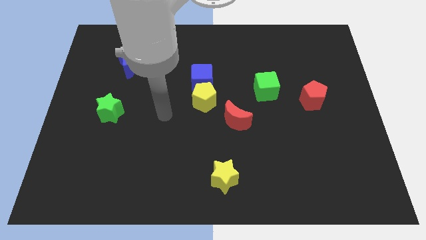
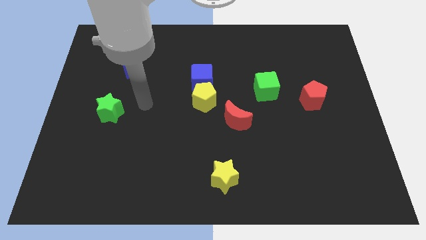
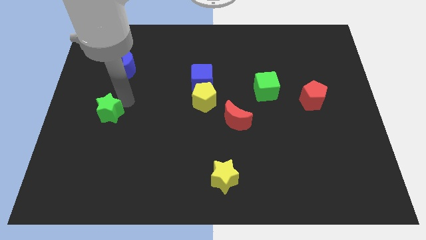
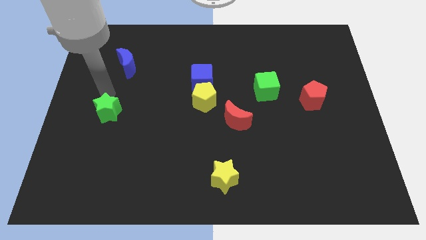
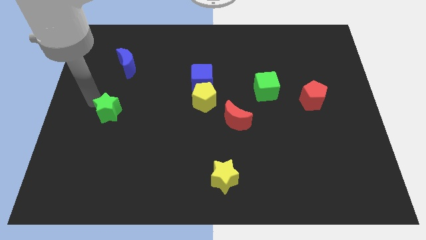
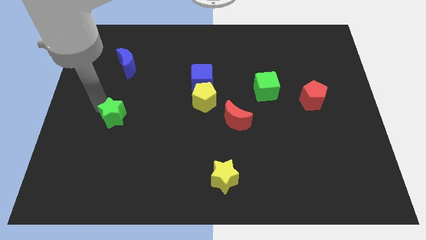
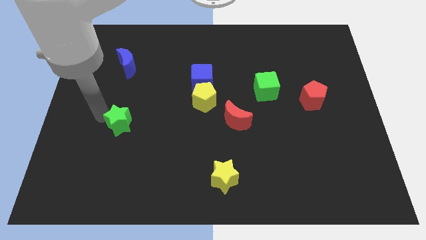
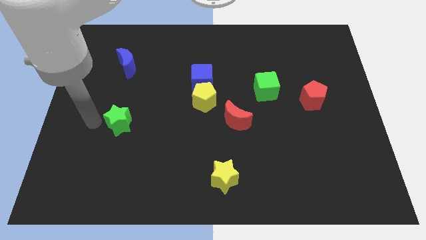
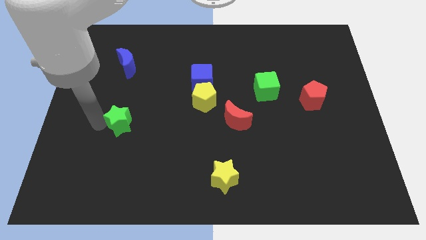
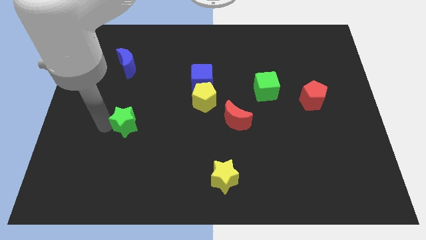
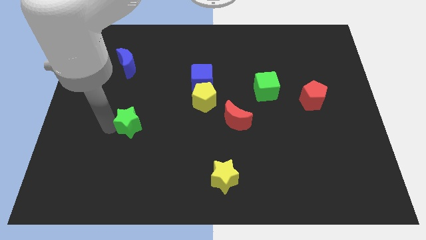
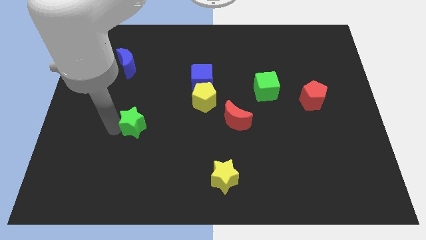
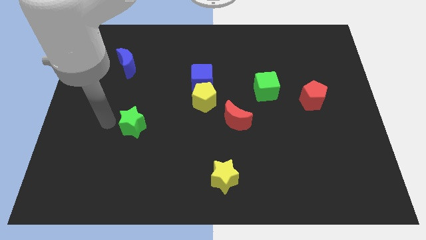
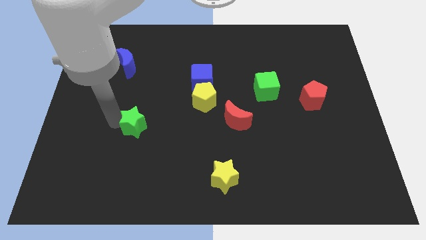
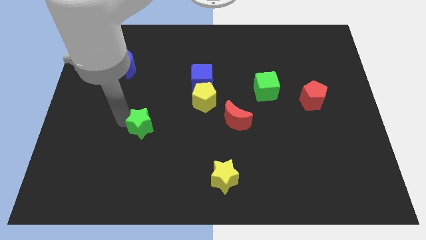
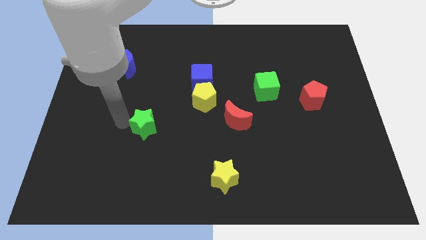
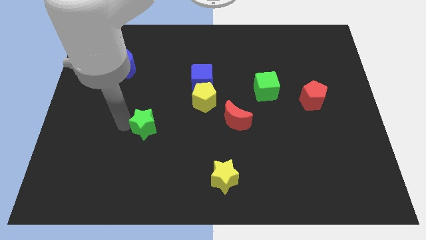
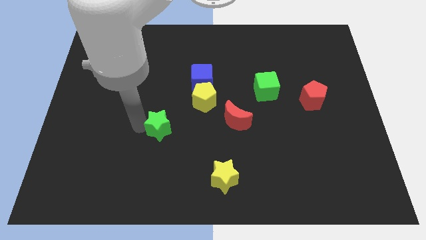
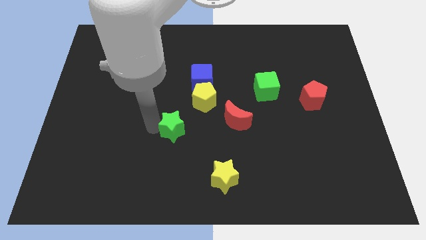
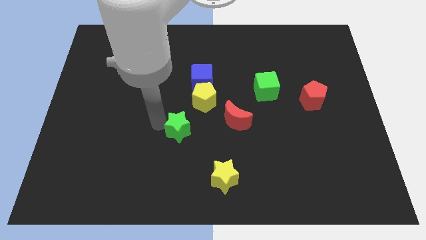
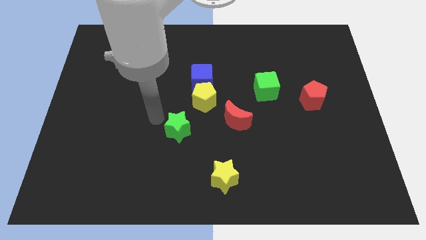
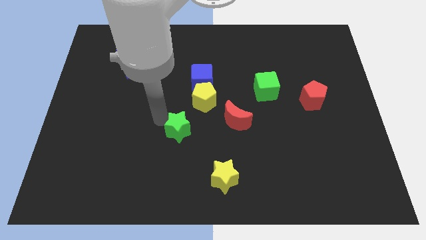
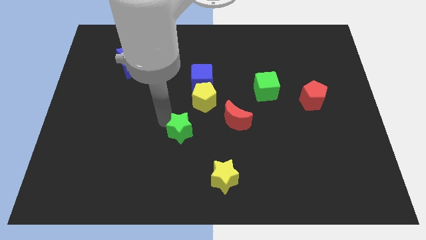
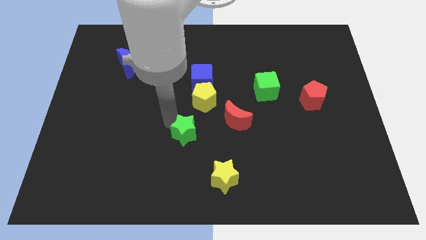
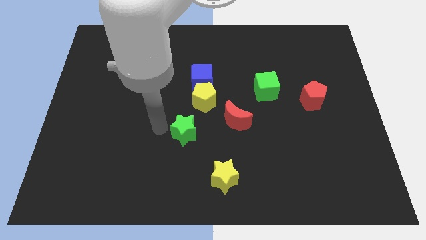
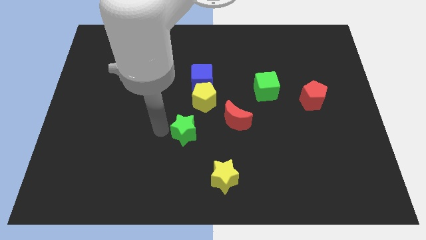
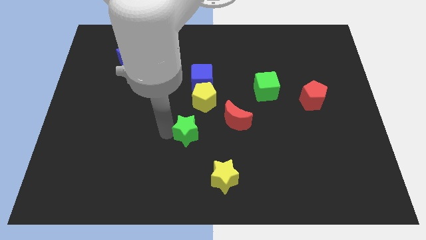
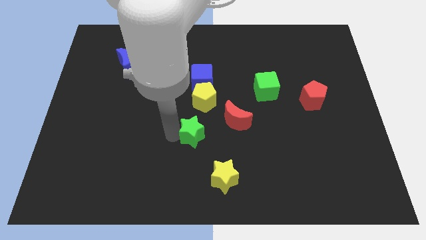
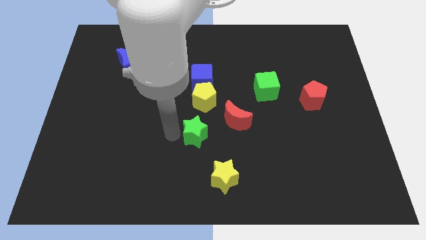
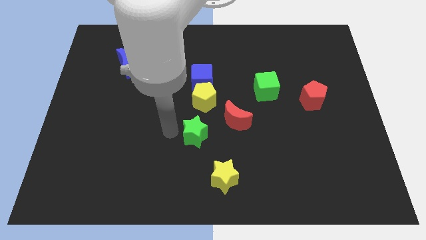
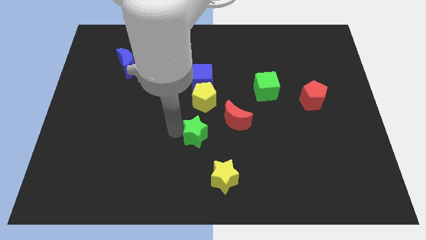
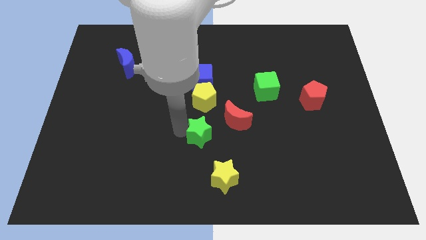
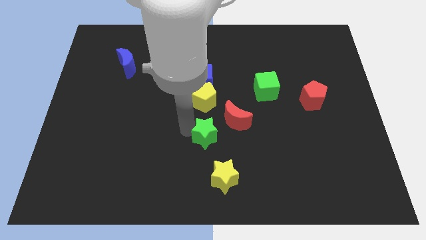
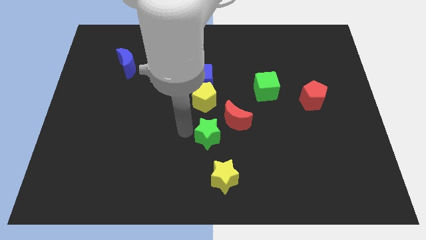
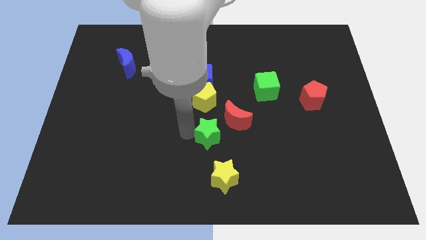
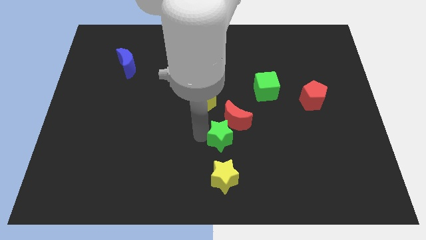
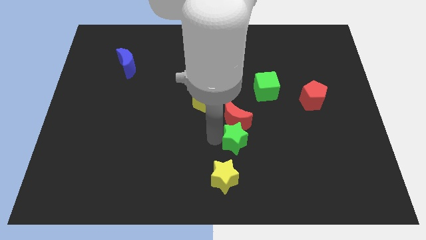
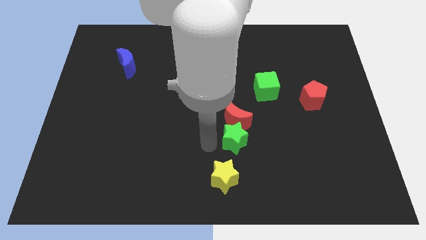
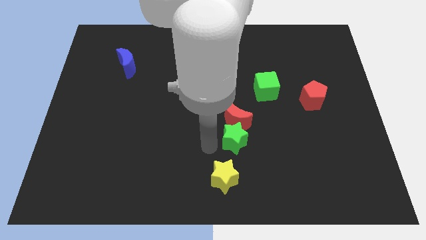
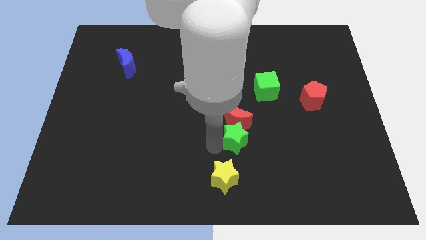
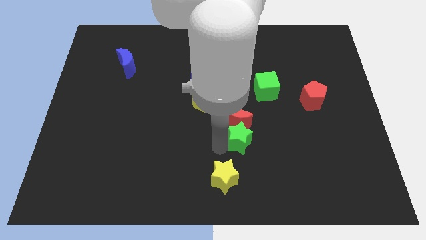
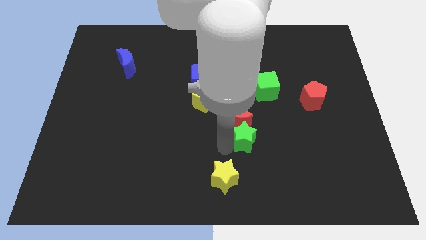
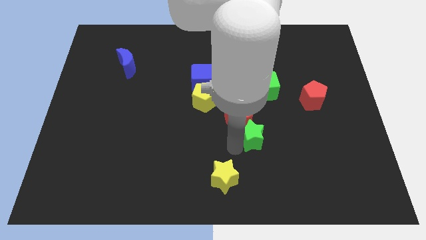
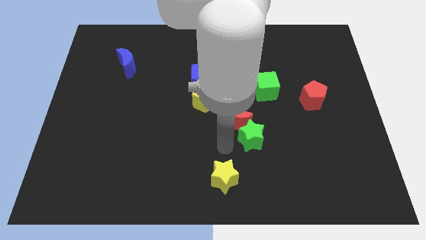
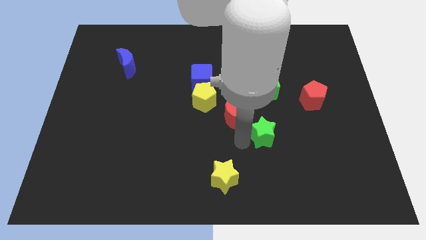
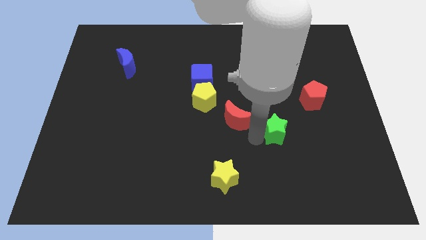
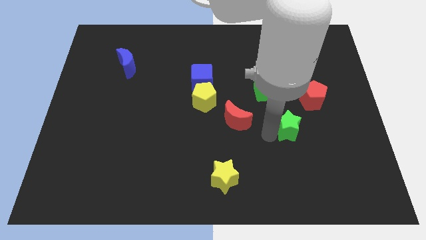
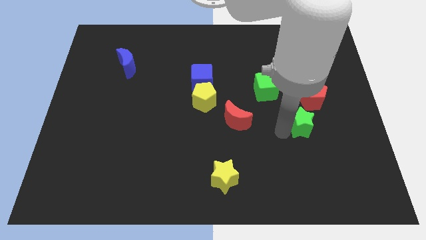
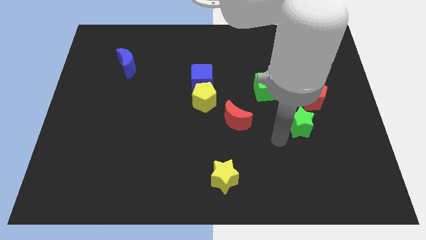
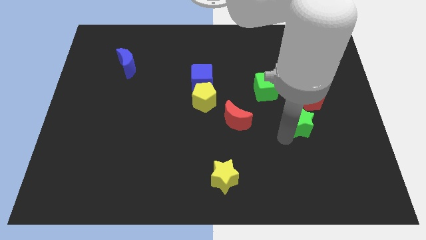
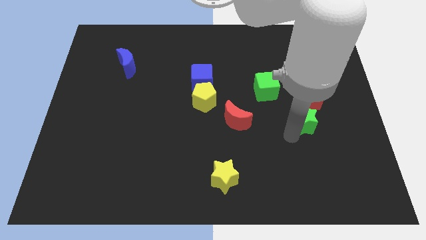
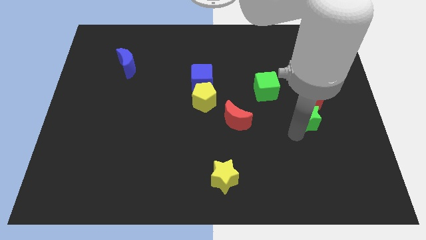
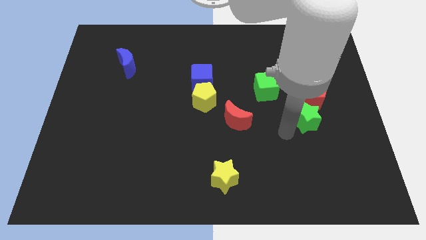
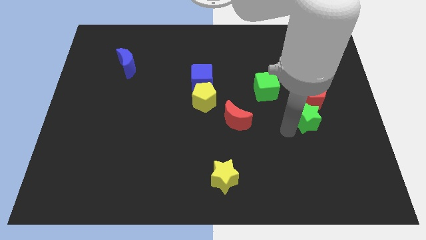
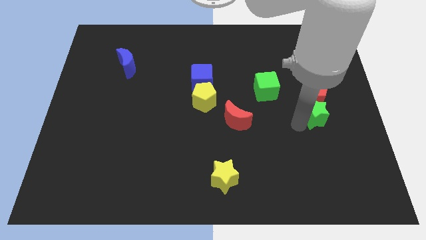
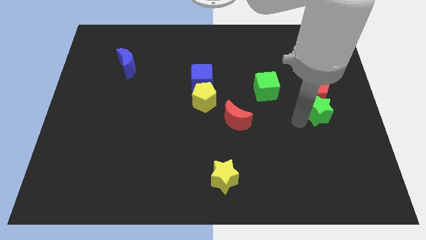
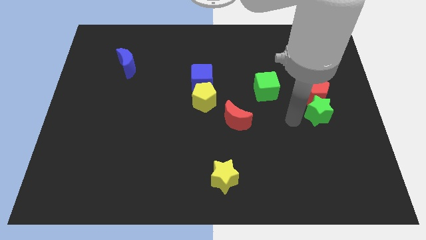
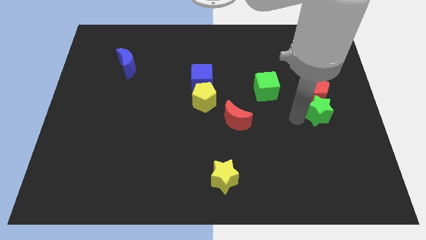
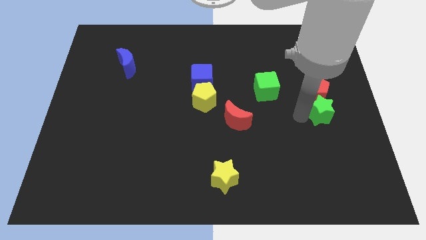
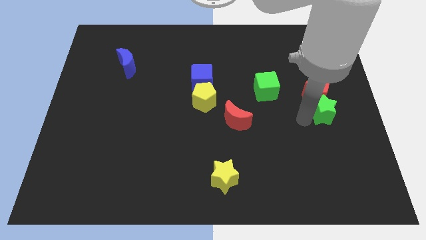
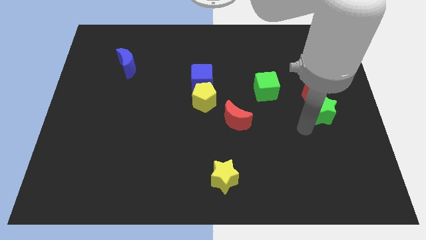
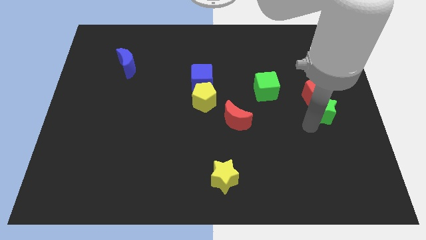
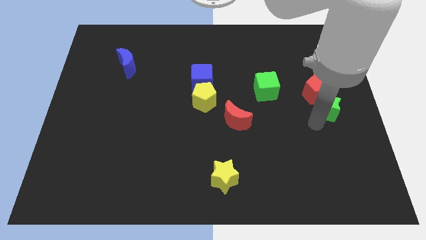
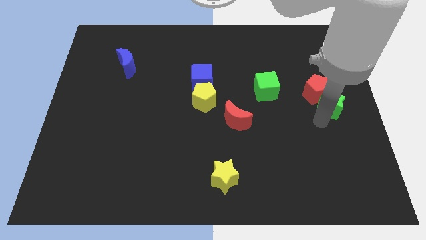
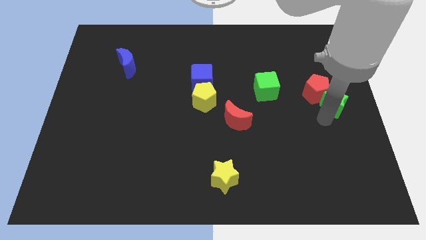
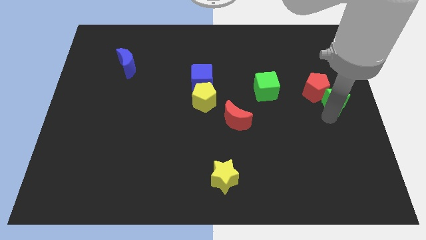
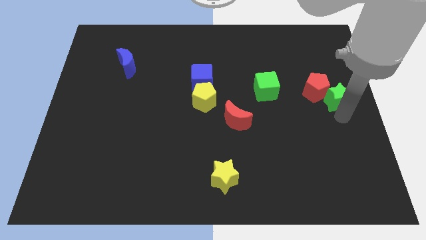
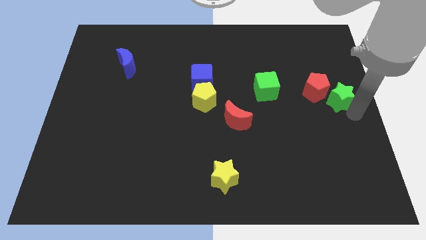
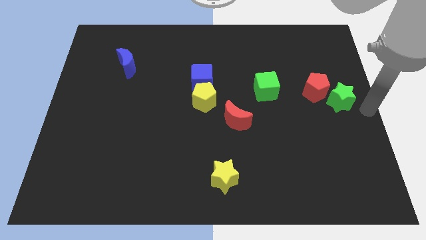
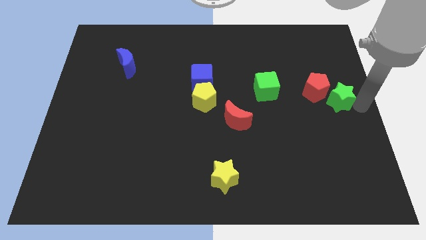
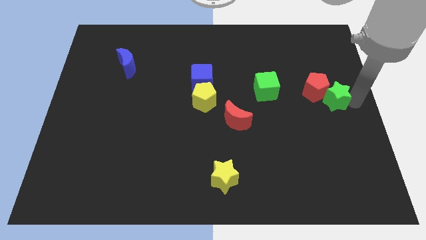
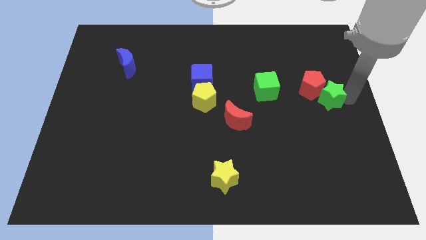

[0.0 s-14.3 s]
put the green star to the right side of the green cube

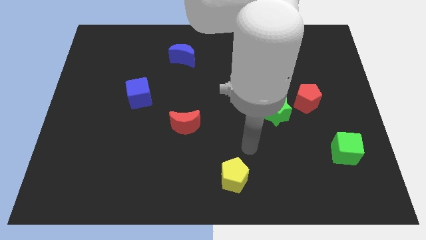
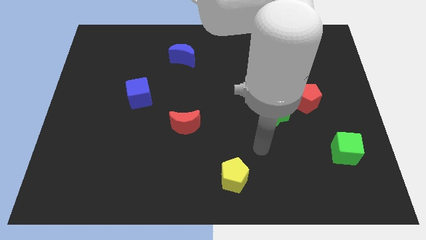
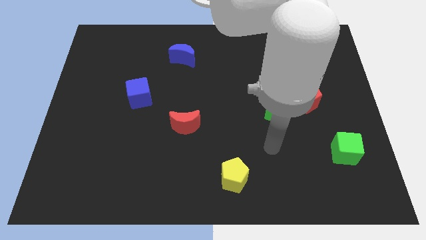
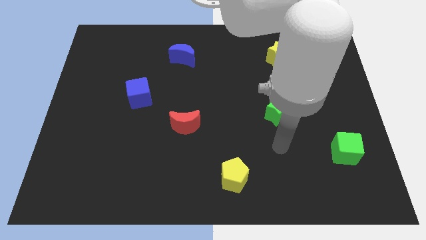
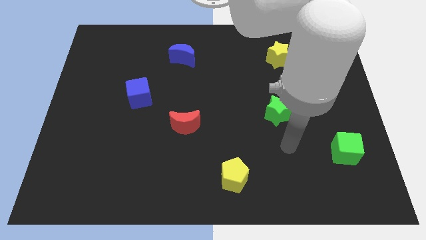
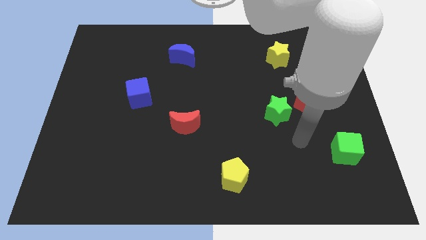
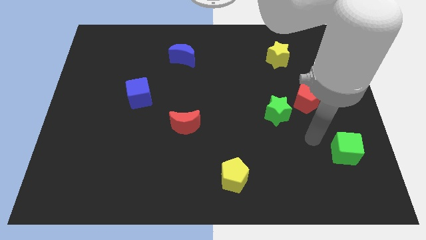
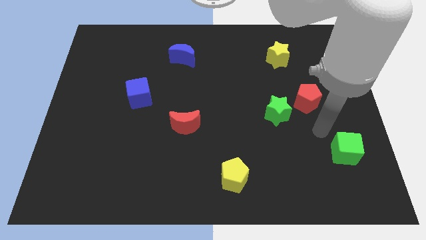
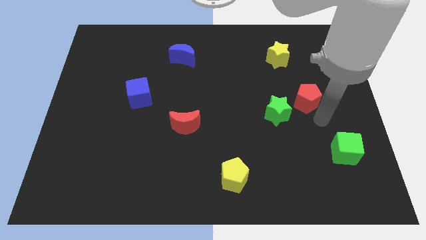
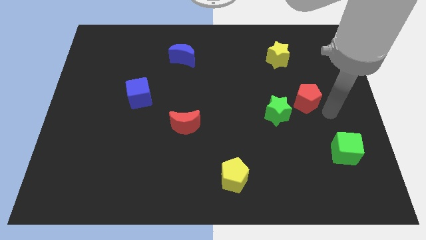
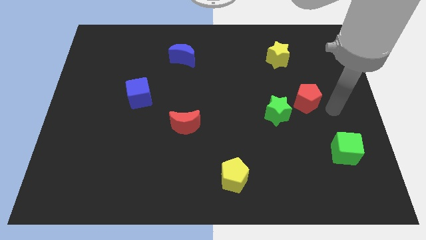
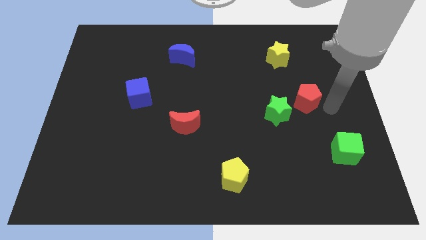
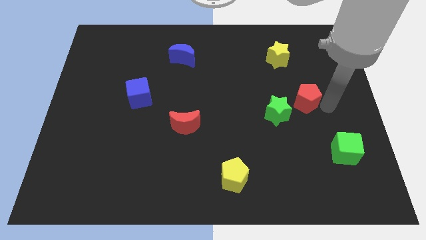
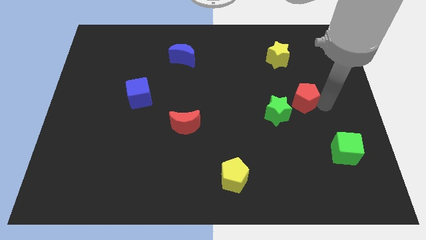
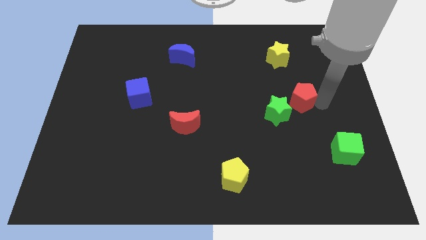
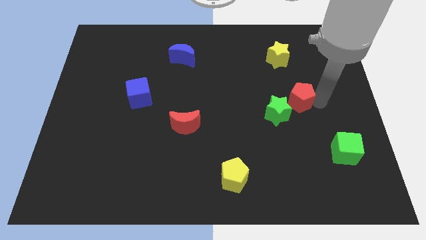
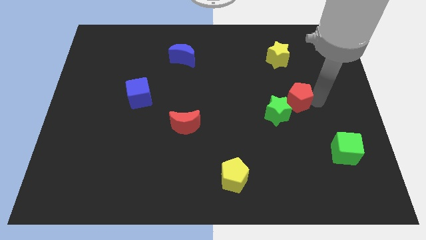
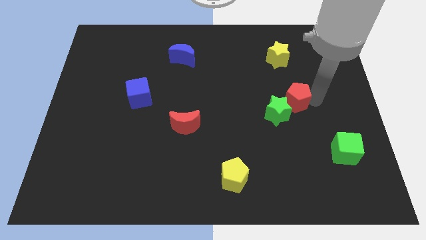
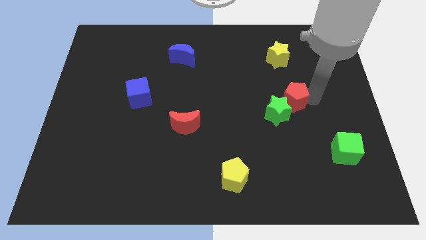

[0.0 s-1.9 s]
put the red pentagon to the top of the green star
